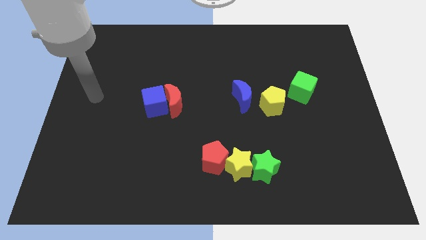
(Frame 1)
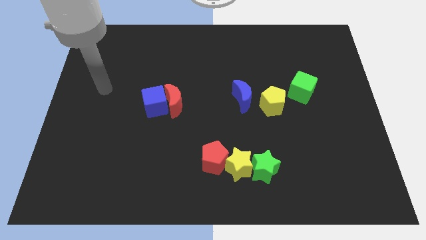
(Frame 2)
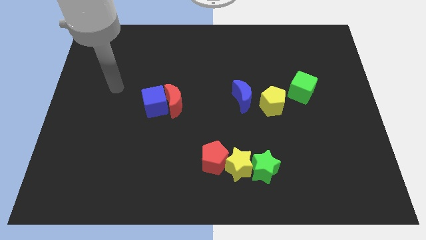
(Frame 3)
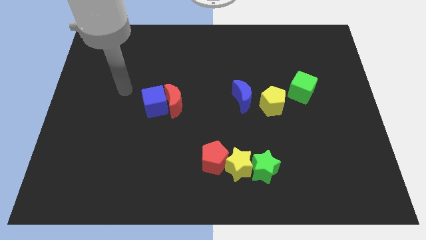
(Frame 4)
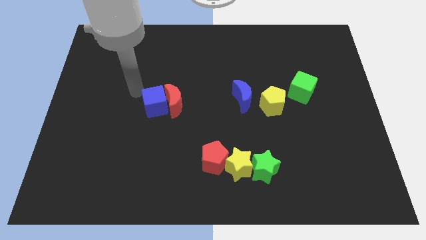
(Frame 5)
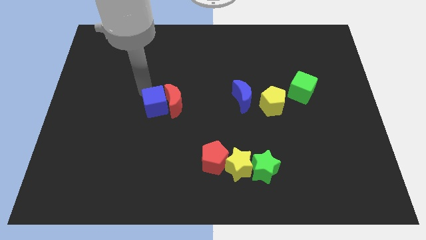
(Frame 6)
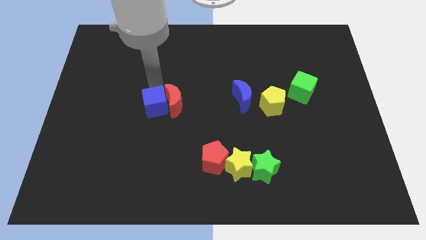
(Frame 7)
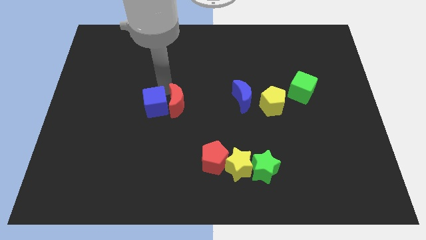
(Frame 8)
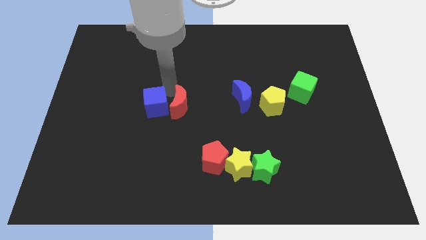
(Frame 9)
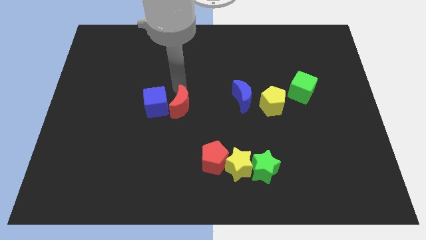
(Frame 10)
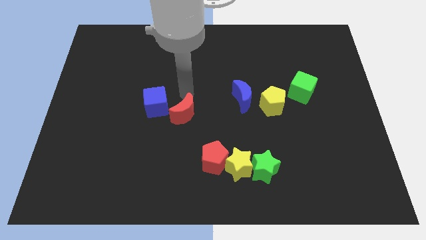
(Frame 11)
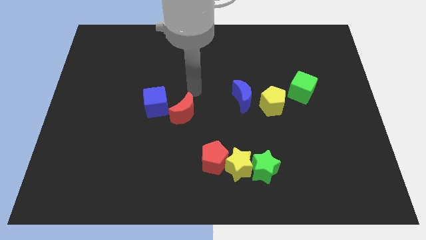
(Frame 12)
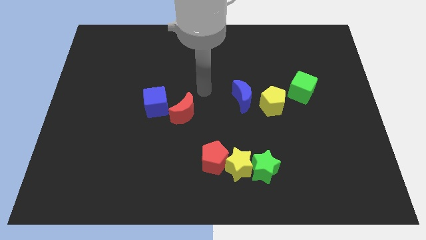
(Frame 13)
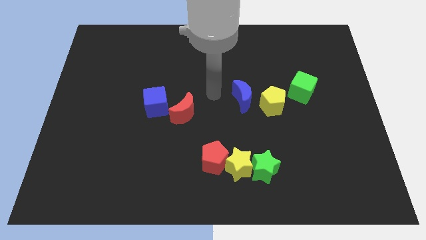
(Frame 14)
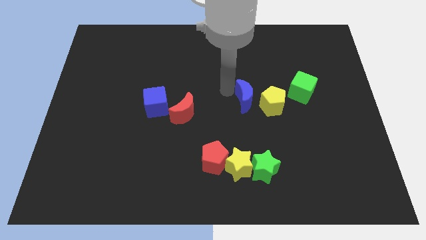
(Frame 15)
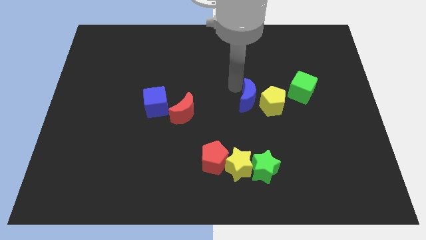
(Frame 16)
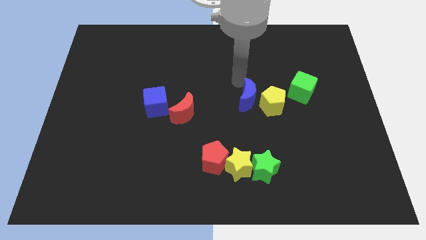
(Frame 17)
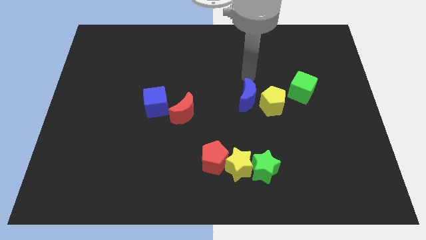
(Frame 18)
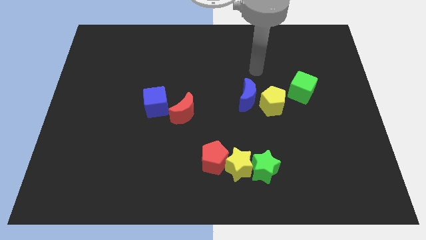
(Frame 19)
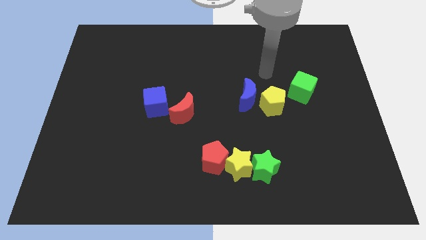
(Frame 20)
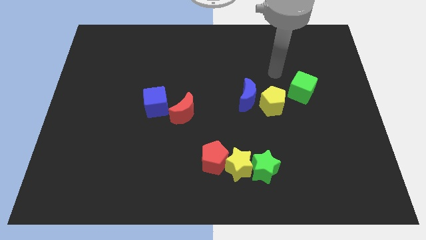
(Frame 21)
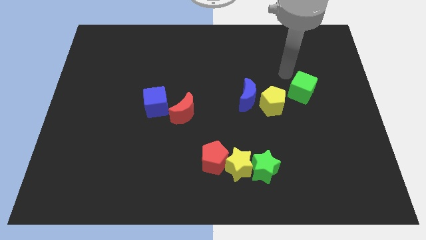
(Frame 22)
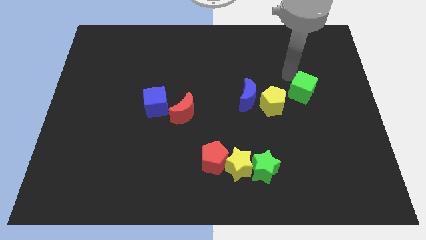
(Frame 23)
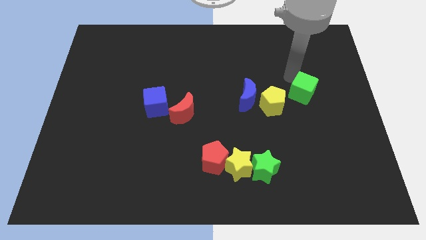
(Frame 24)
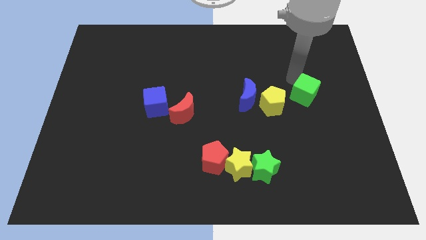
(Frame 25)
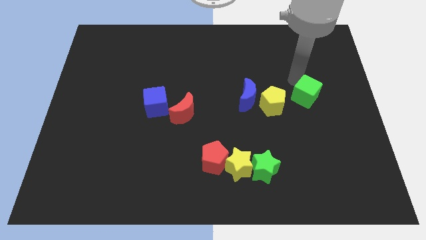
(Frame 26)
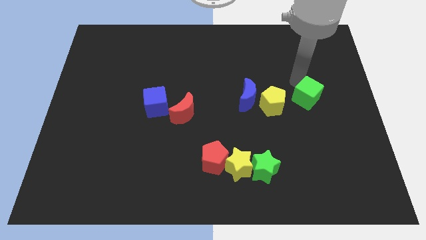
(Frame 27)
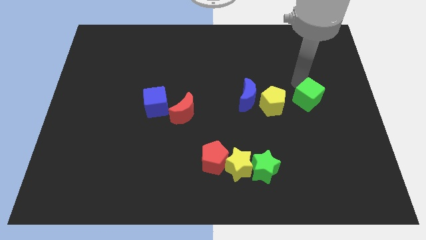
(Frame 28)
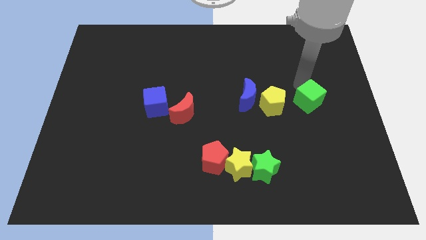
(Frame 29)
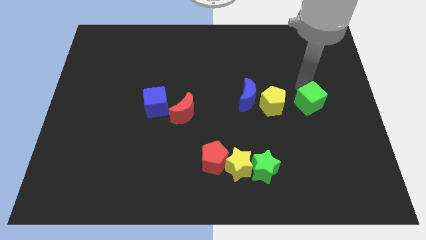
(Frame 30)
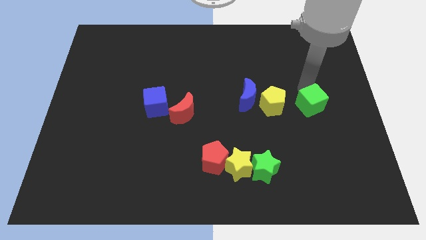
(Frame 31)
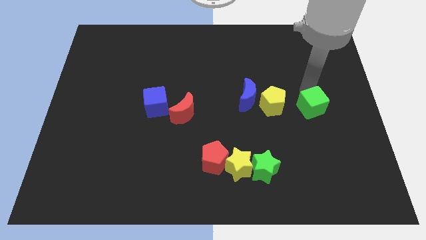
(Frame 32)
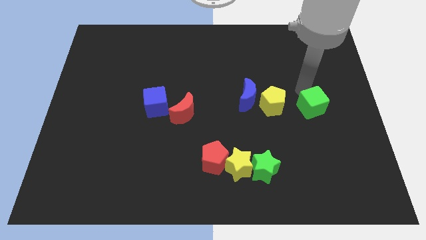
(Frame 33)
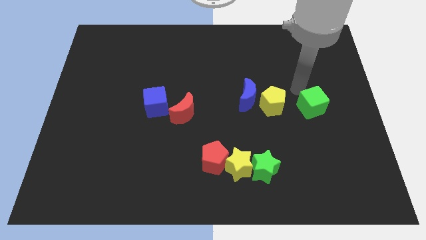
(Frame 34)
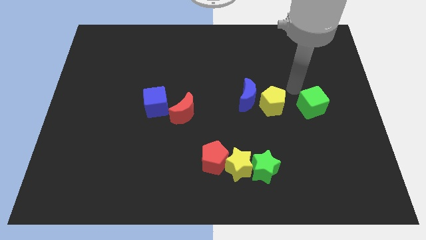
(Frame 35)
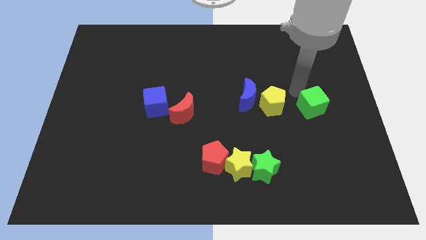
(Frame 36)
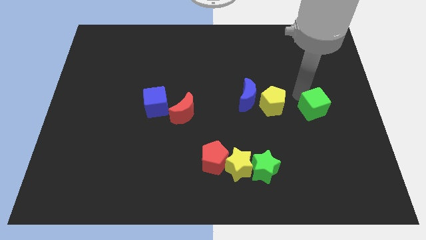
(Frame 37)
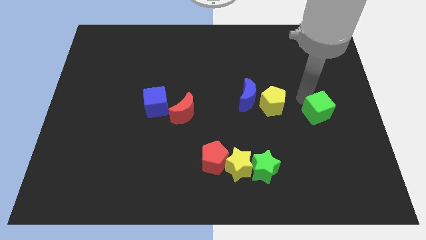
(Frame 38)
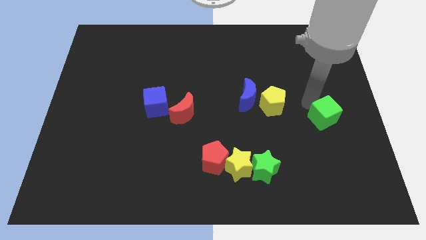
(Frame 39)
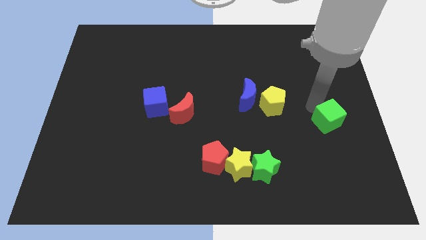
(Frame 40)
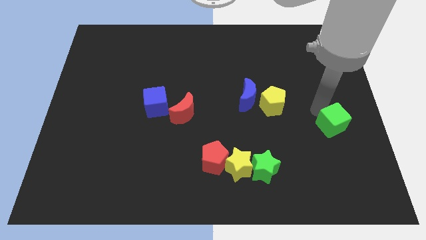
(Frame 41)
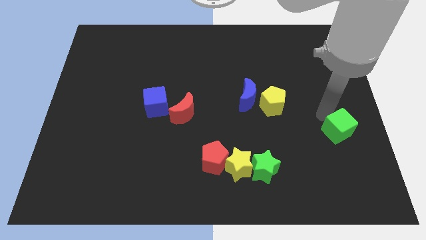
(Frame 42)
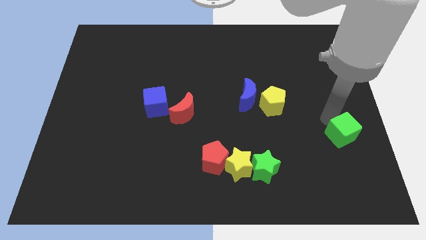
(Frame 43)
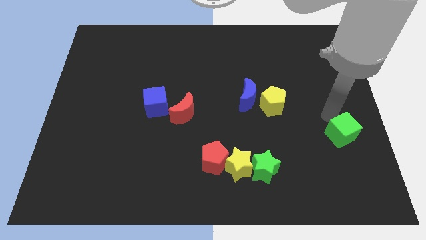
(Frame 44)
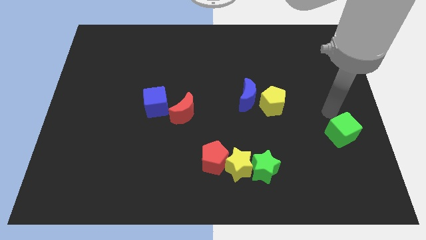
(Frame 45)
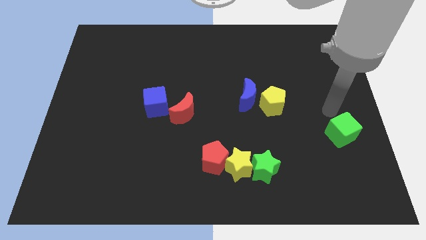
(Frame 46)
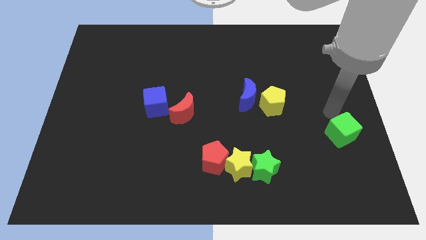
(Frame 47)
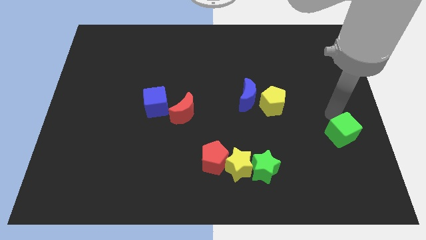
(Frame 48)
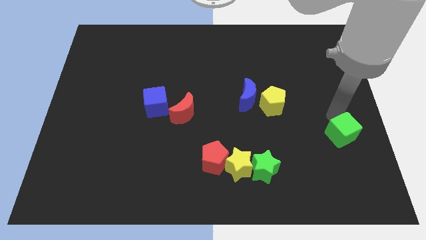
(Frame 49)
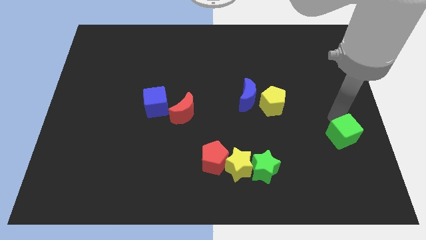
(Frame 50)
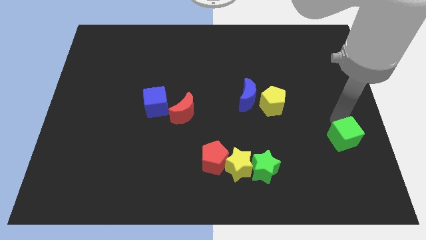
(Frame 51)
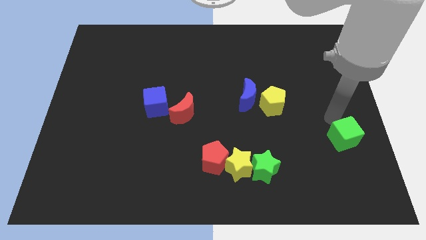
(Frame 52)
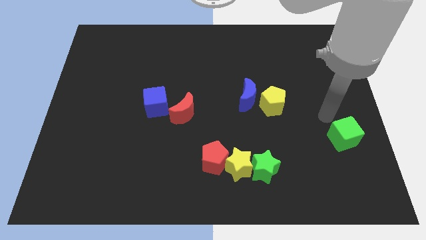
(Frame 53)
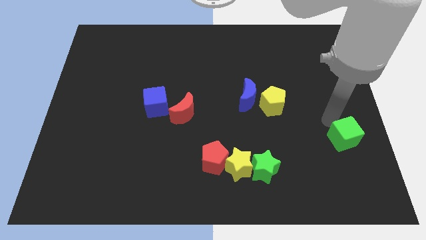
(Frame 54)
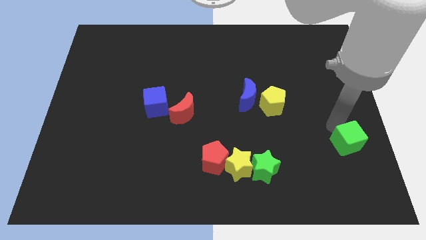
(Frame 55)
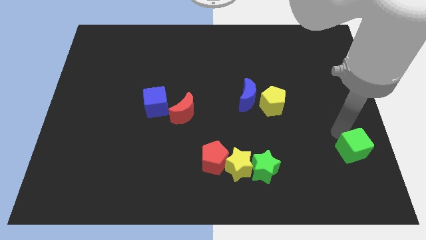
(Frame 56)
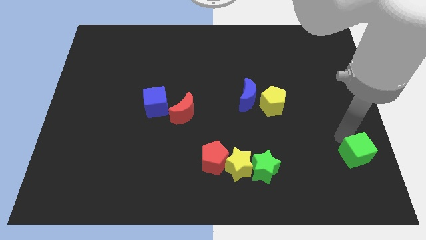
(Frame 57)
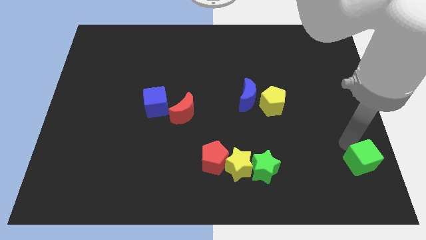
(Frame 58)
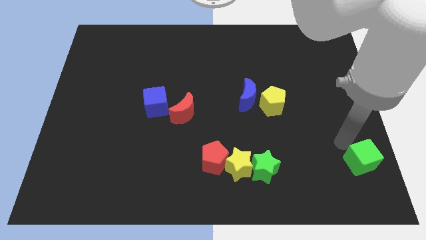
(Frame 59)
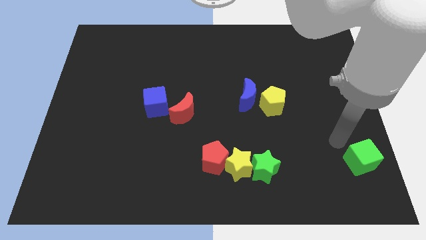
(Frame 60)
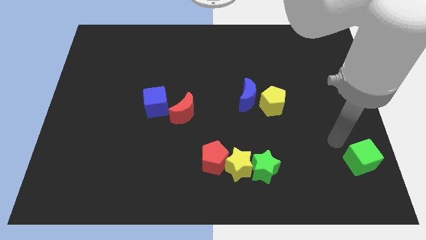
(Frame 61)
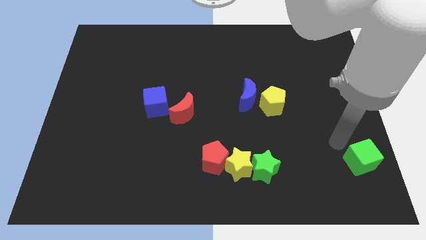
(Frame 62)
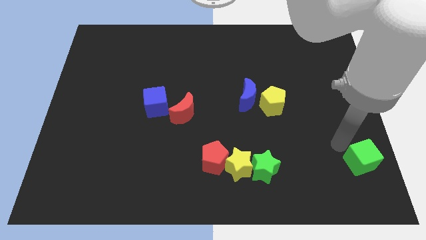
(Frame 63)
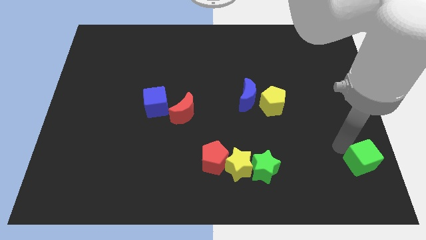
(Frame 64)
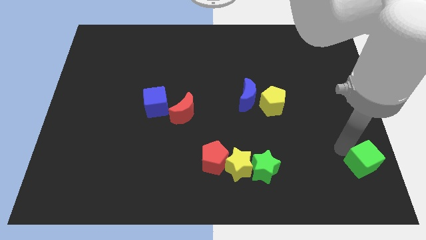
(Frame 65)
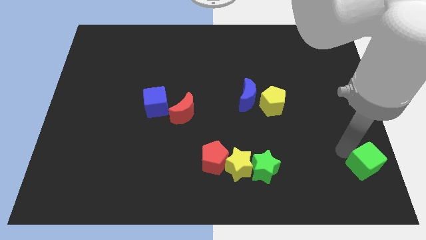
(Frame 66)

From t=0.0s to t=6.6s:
move the green cube to the bottom right
